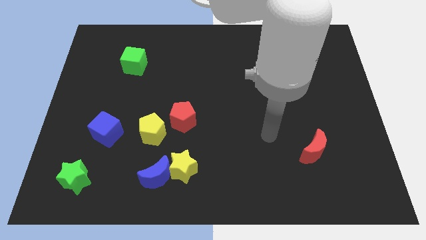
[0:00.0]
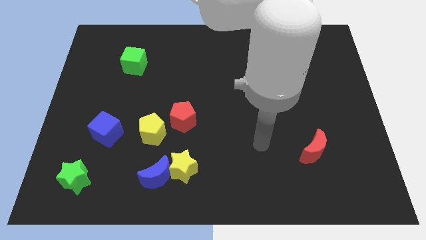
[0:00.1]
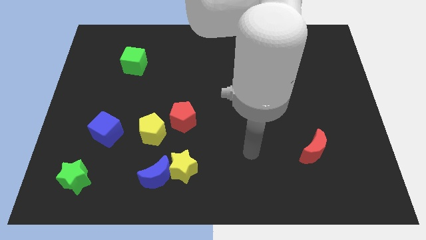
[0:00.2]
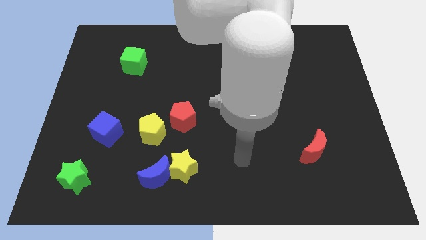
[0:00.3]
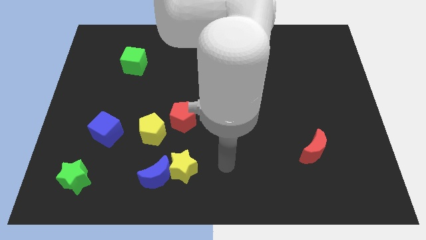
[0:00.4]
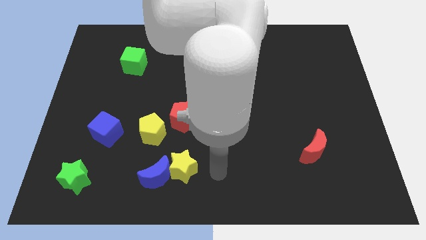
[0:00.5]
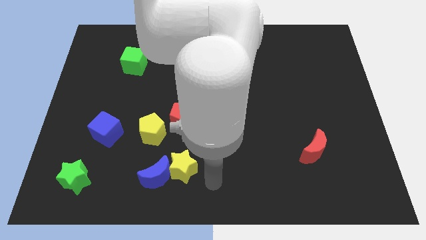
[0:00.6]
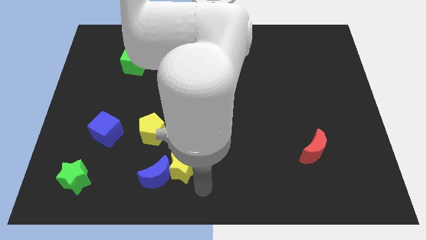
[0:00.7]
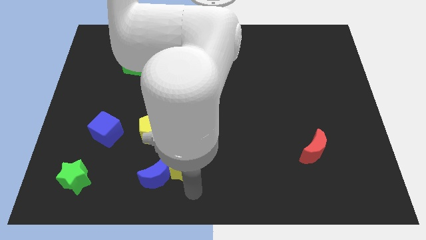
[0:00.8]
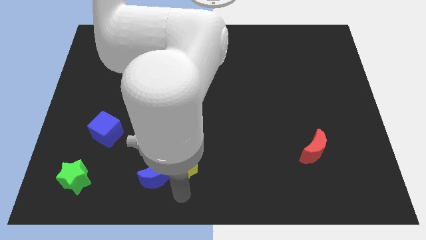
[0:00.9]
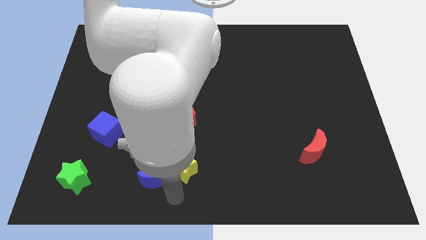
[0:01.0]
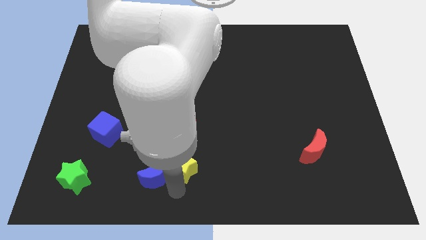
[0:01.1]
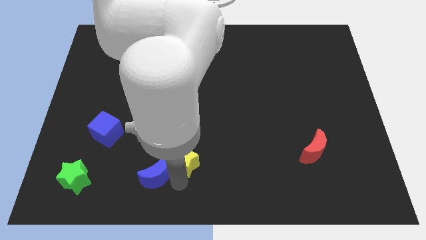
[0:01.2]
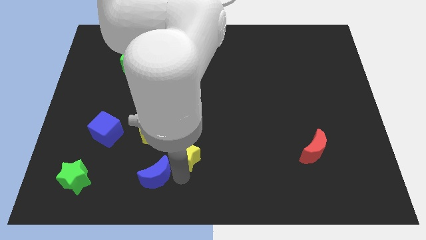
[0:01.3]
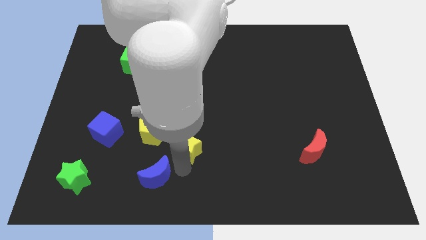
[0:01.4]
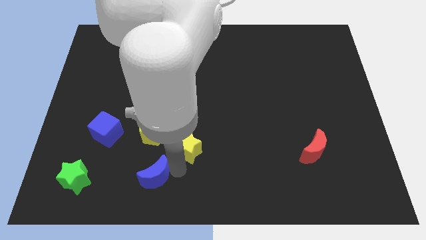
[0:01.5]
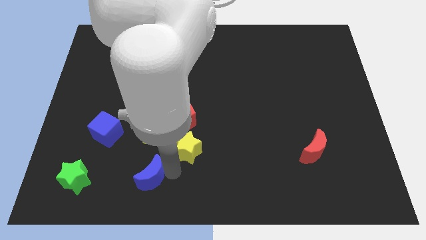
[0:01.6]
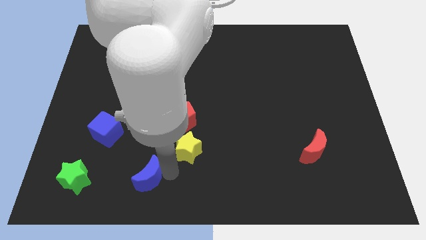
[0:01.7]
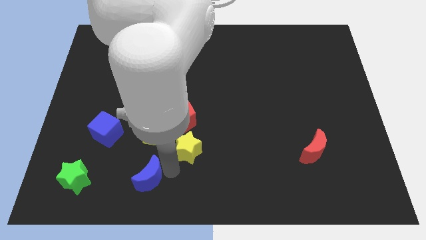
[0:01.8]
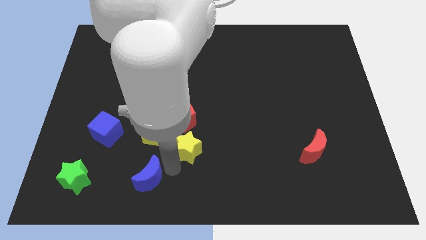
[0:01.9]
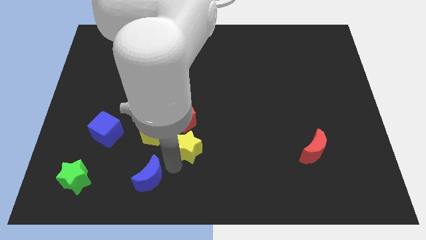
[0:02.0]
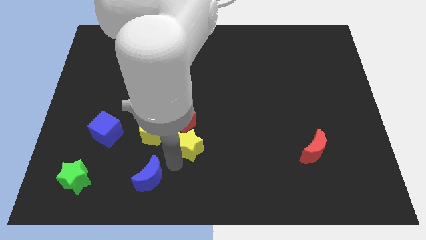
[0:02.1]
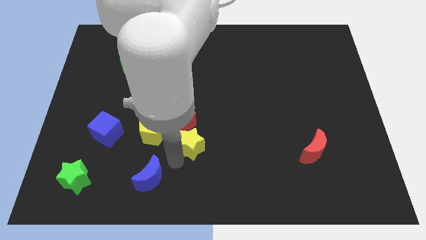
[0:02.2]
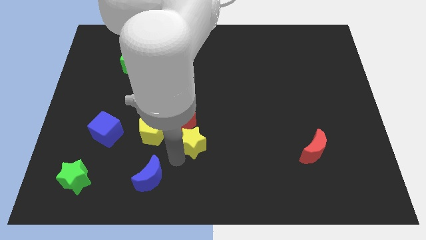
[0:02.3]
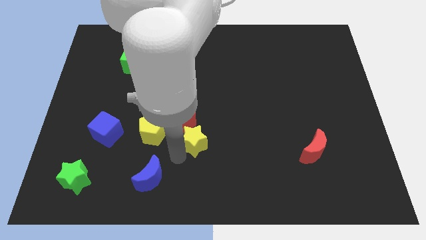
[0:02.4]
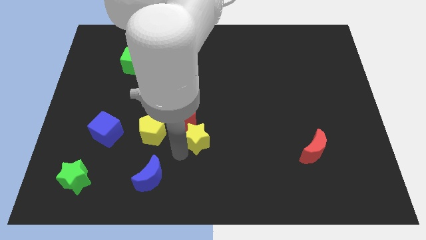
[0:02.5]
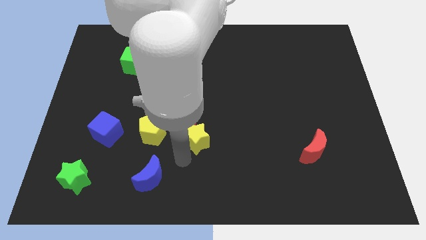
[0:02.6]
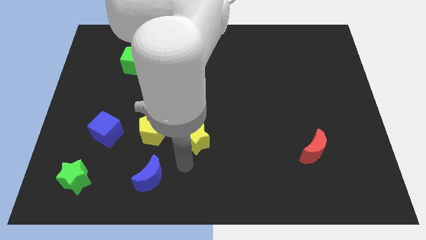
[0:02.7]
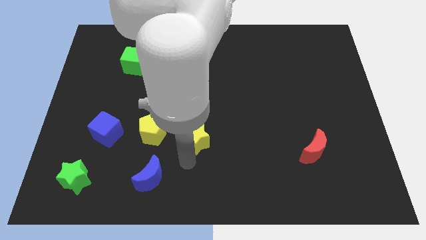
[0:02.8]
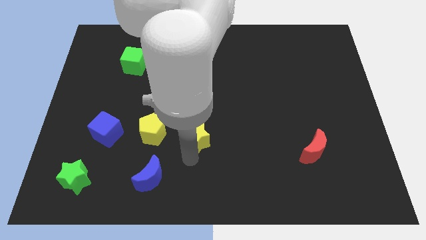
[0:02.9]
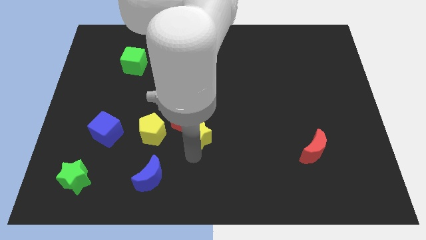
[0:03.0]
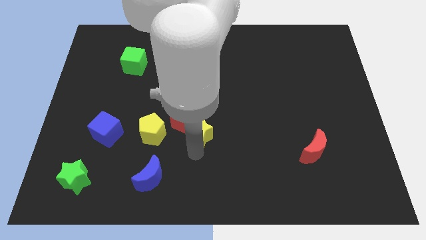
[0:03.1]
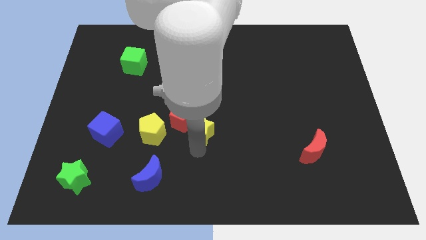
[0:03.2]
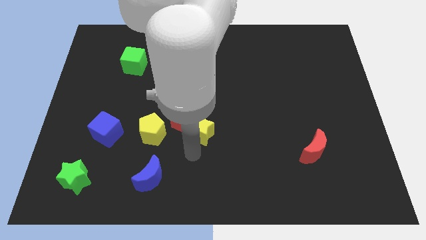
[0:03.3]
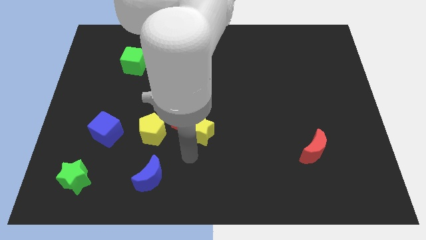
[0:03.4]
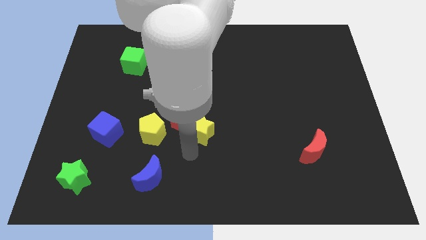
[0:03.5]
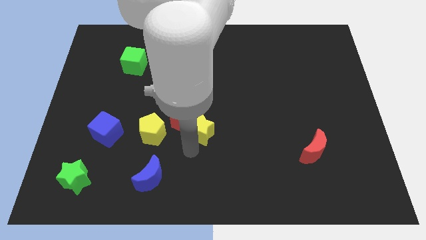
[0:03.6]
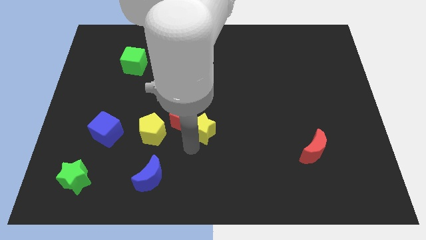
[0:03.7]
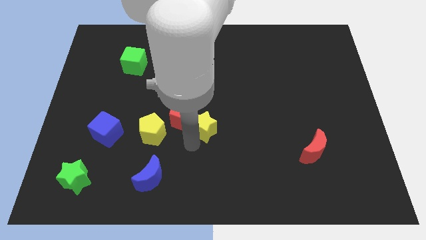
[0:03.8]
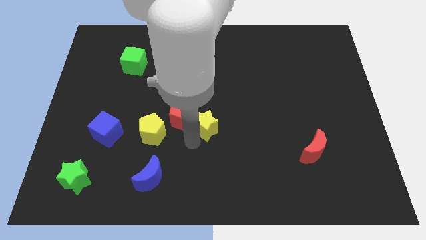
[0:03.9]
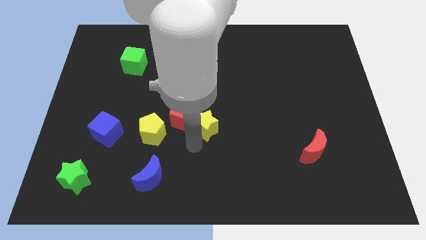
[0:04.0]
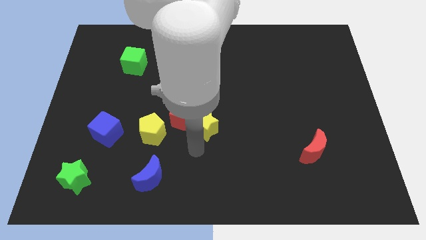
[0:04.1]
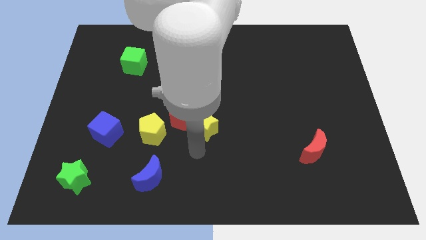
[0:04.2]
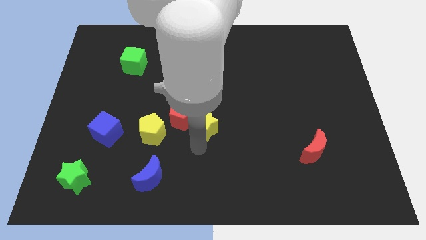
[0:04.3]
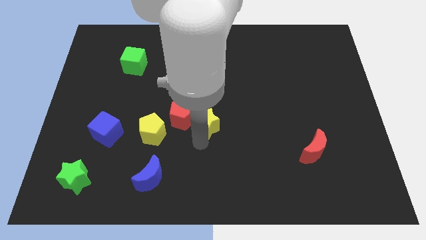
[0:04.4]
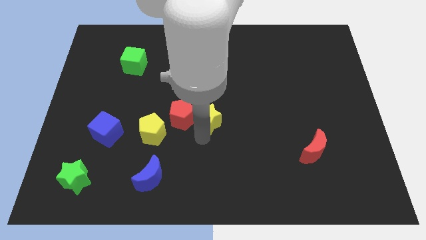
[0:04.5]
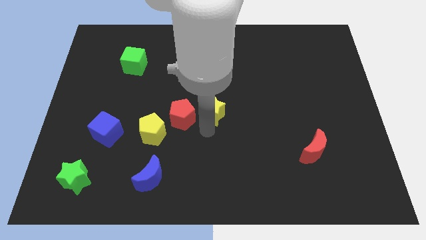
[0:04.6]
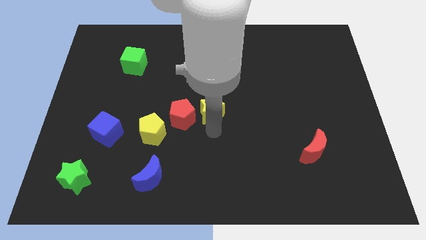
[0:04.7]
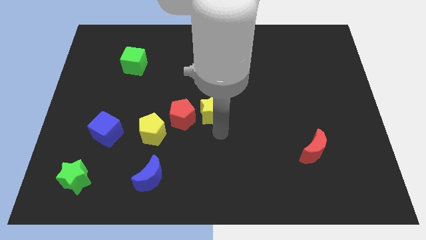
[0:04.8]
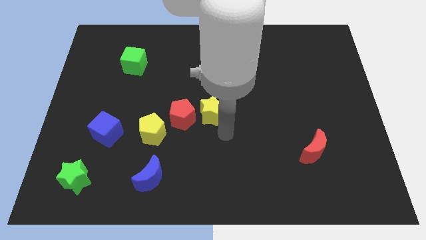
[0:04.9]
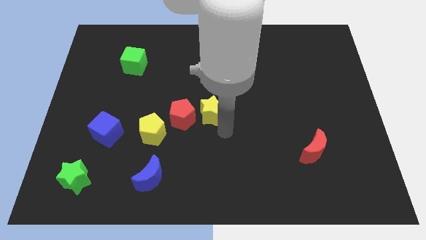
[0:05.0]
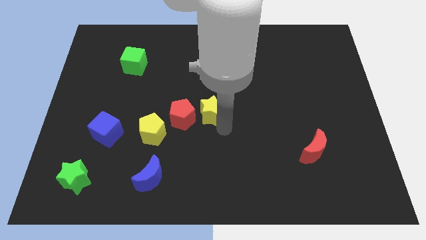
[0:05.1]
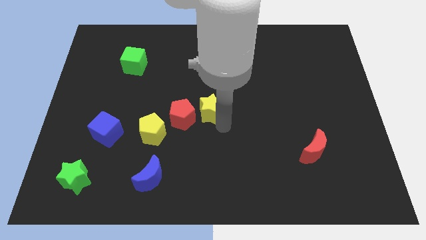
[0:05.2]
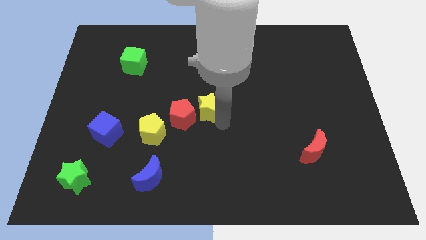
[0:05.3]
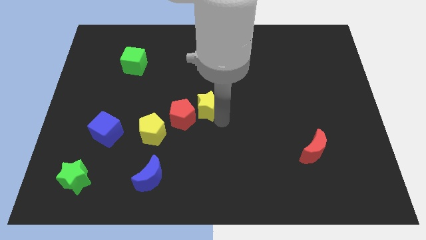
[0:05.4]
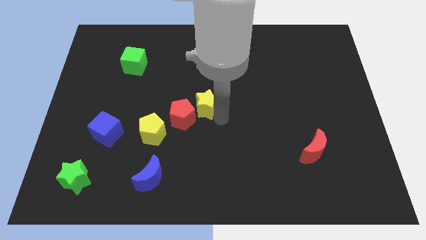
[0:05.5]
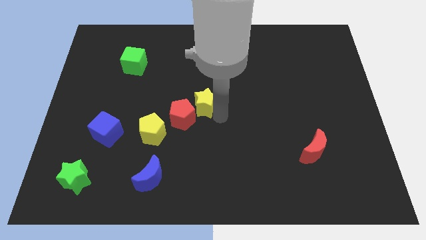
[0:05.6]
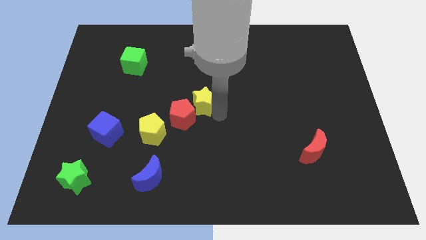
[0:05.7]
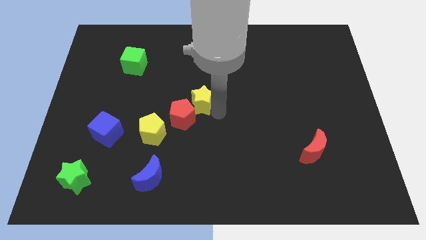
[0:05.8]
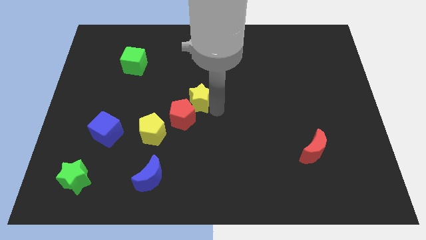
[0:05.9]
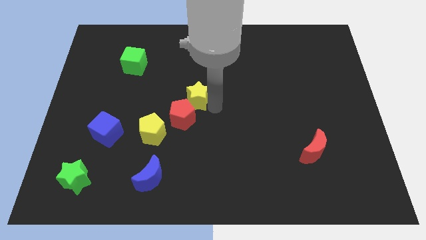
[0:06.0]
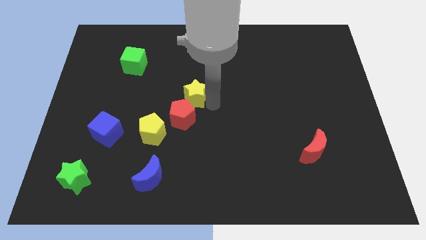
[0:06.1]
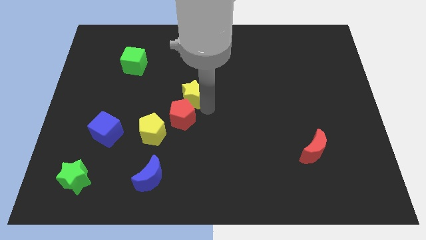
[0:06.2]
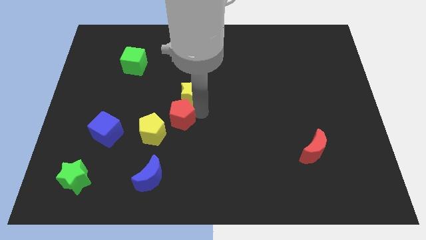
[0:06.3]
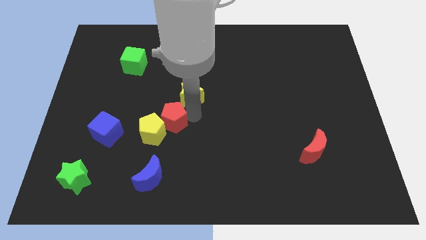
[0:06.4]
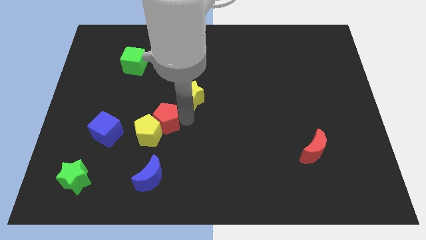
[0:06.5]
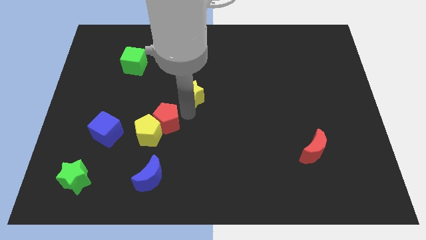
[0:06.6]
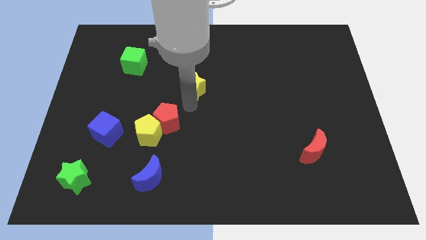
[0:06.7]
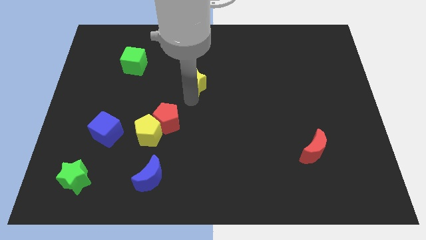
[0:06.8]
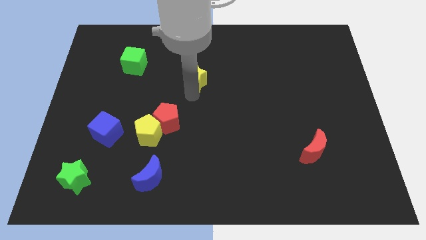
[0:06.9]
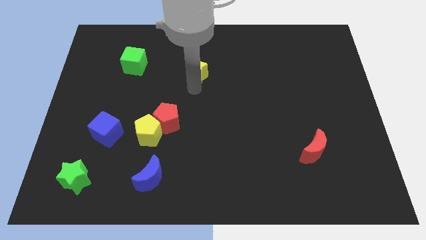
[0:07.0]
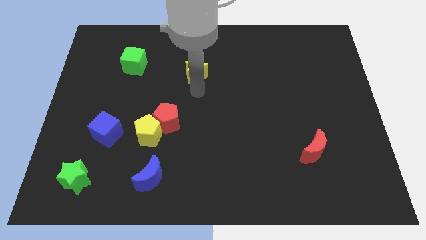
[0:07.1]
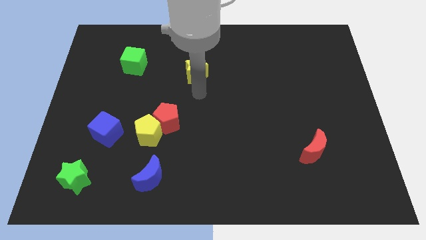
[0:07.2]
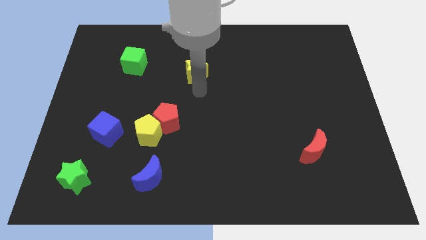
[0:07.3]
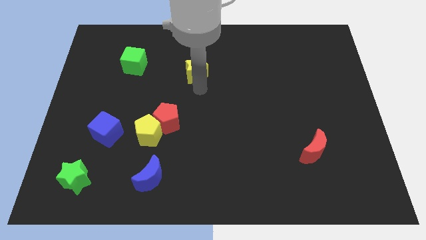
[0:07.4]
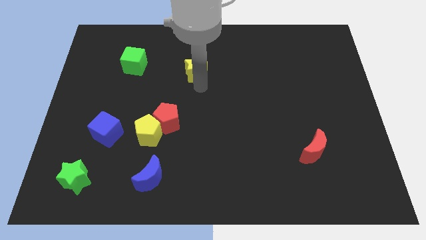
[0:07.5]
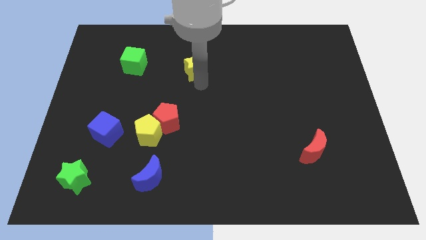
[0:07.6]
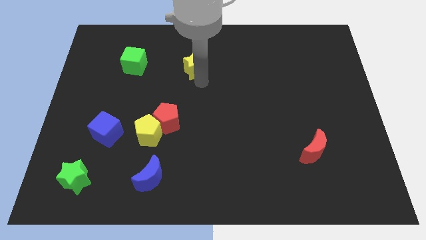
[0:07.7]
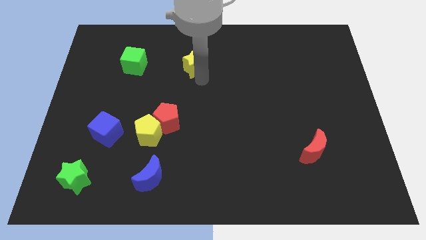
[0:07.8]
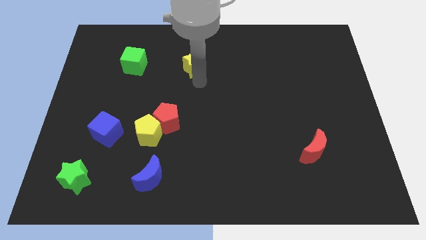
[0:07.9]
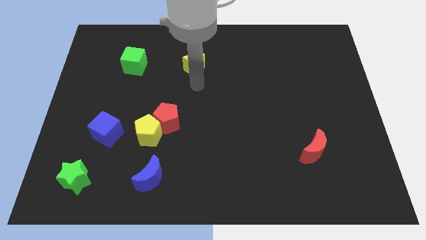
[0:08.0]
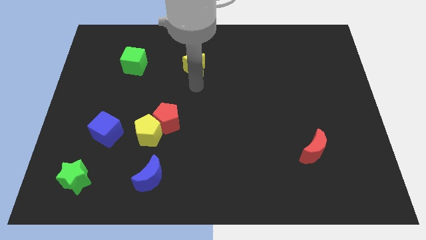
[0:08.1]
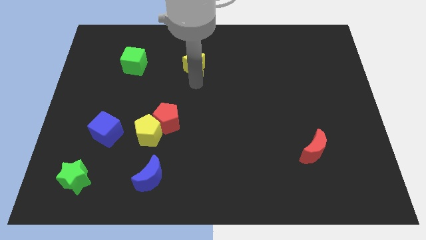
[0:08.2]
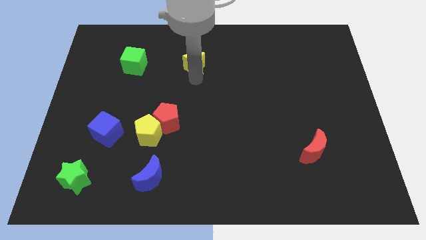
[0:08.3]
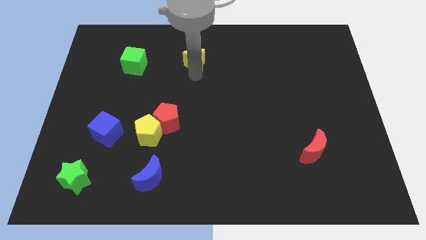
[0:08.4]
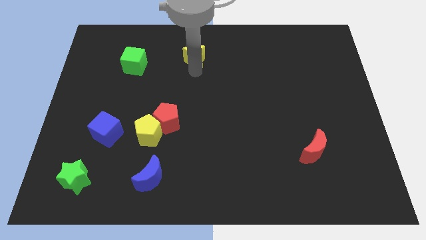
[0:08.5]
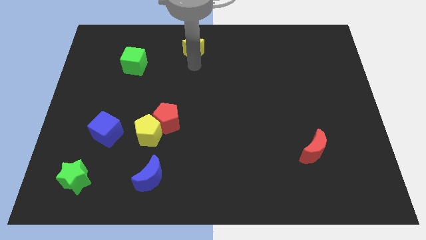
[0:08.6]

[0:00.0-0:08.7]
slide the yellow star to the towards your base
